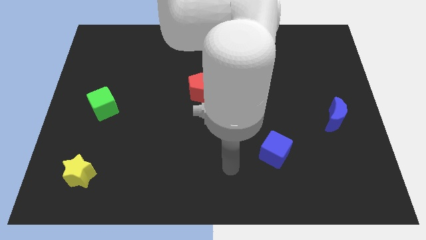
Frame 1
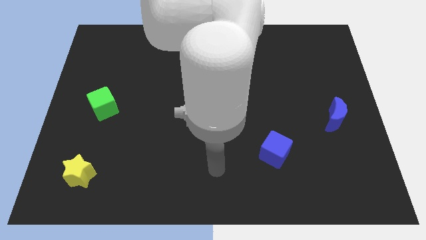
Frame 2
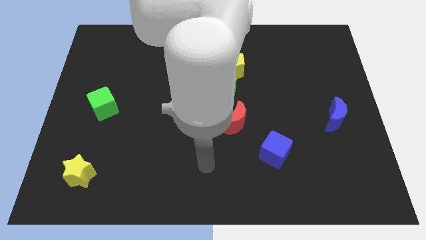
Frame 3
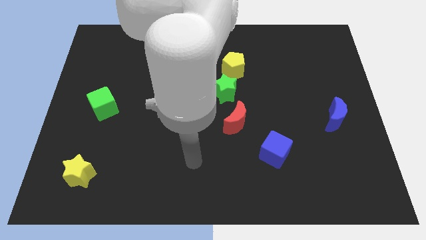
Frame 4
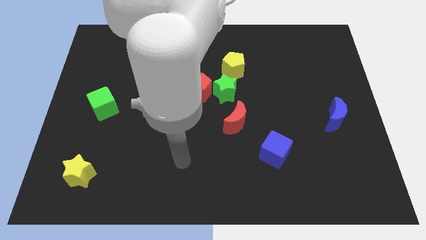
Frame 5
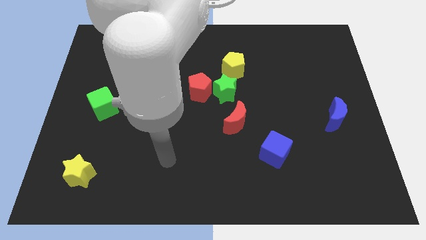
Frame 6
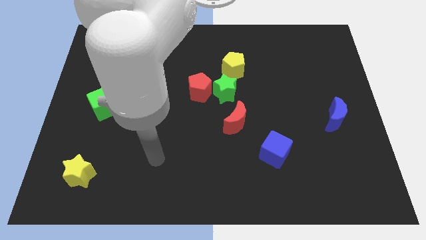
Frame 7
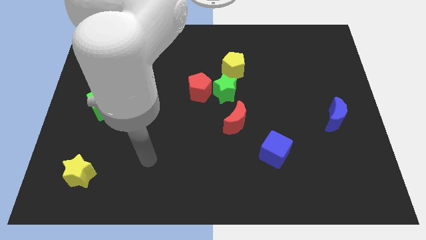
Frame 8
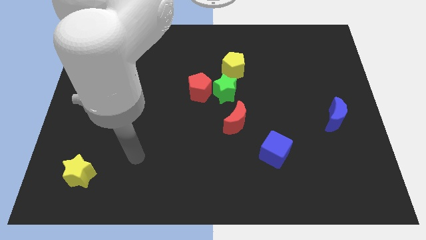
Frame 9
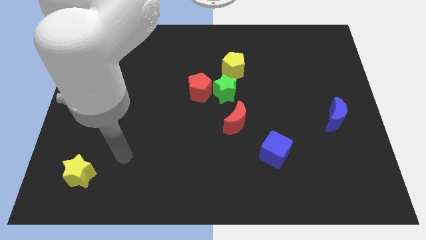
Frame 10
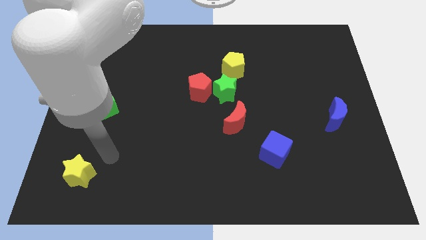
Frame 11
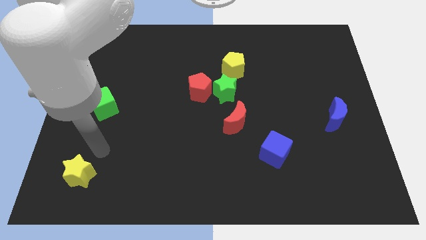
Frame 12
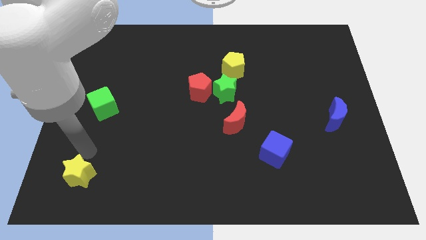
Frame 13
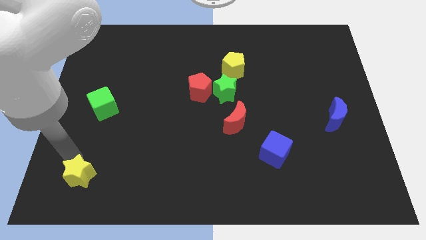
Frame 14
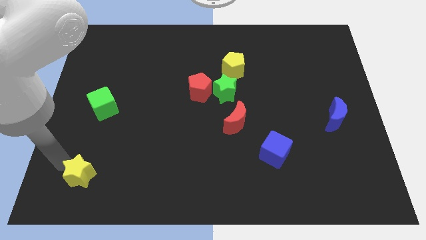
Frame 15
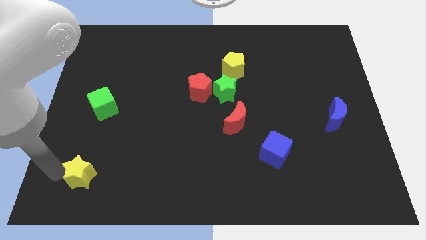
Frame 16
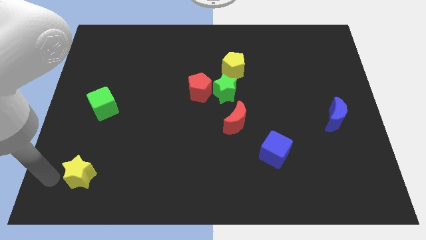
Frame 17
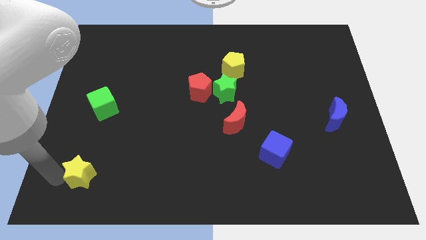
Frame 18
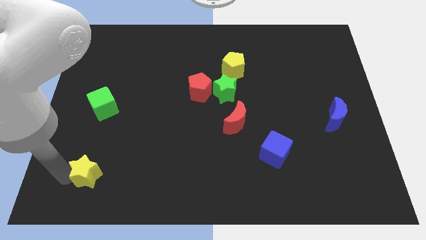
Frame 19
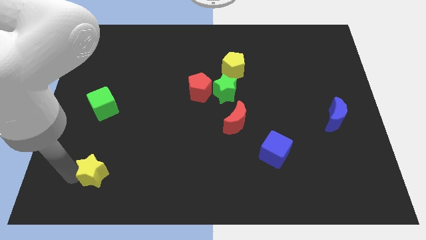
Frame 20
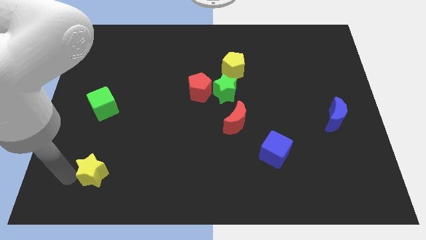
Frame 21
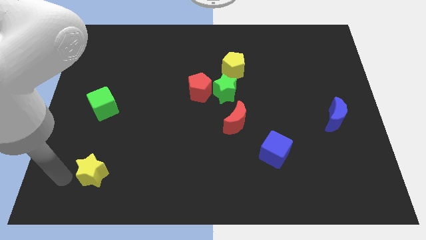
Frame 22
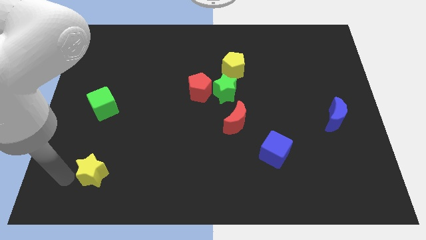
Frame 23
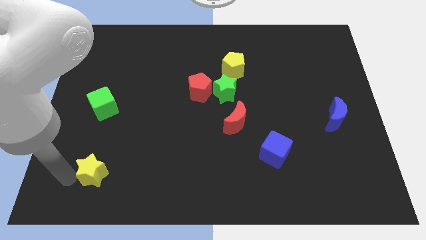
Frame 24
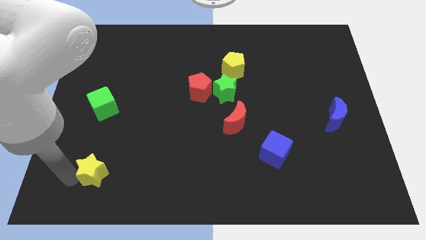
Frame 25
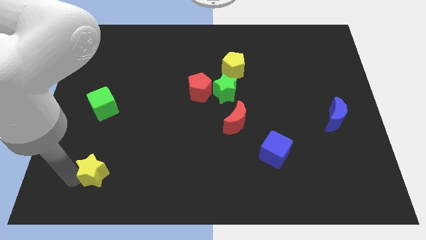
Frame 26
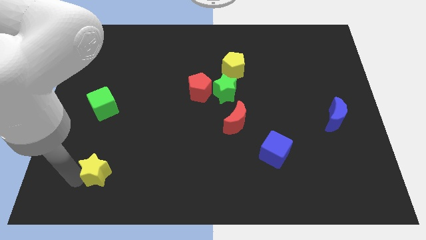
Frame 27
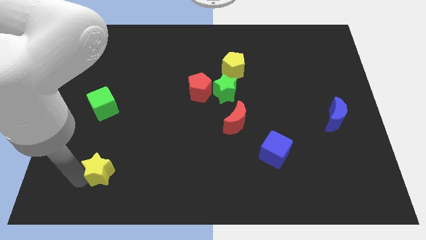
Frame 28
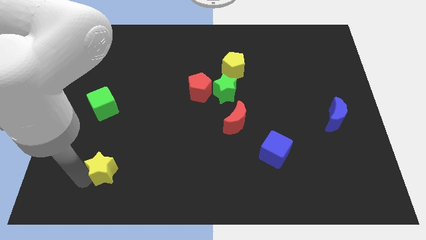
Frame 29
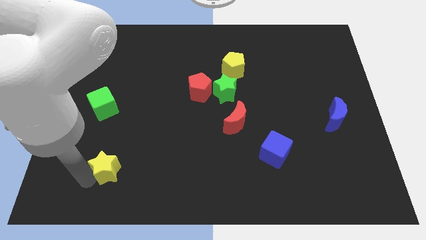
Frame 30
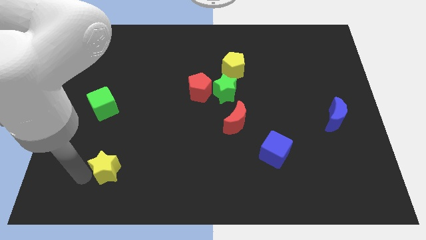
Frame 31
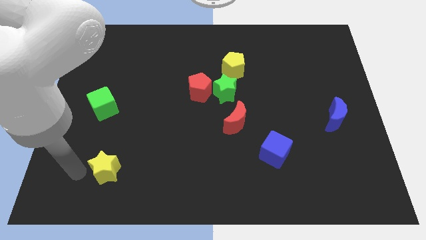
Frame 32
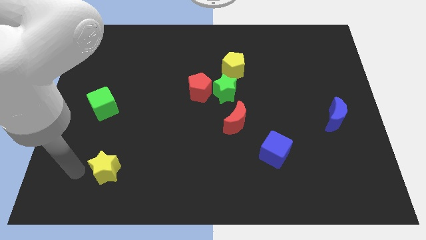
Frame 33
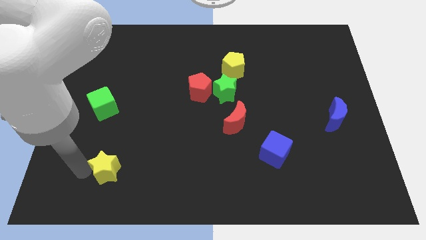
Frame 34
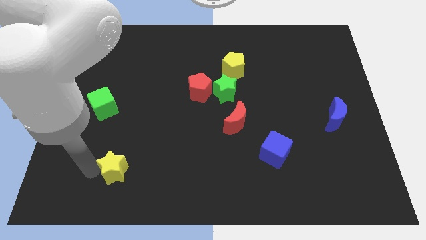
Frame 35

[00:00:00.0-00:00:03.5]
push the yellow star slightly right

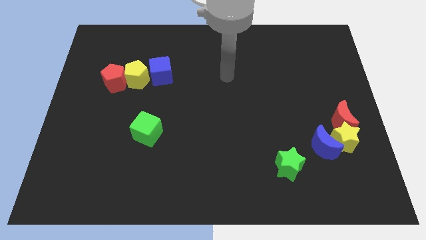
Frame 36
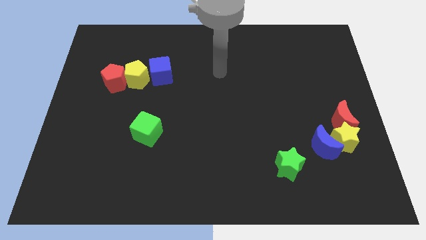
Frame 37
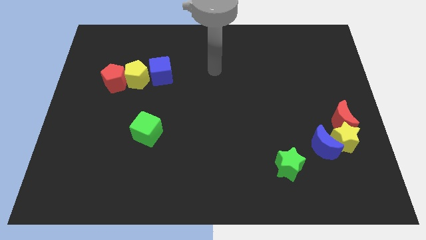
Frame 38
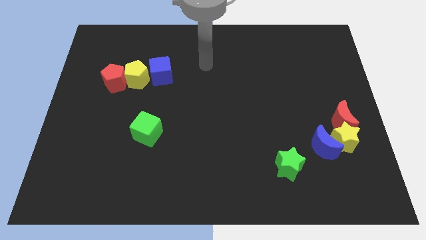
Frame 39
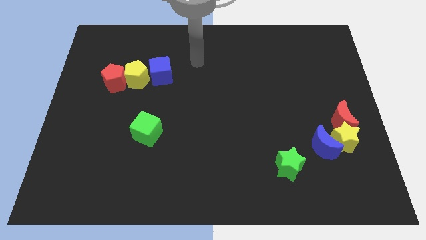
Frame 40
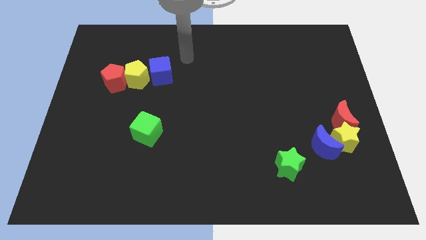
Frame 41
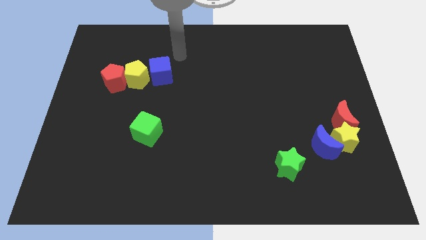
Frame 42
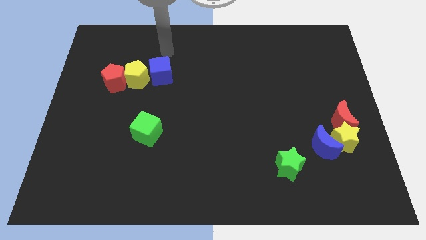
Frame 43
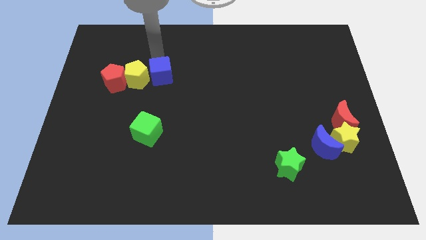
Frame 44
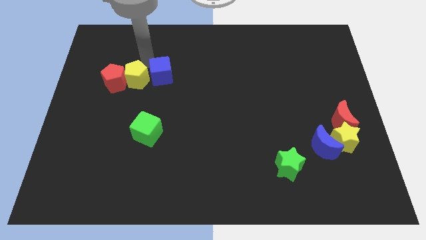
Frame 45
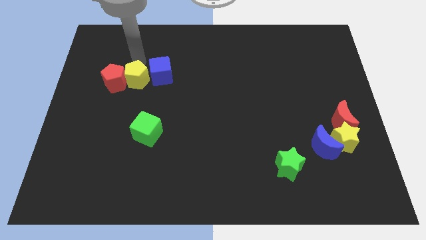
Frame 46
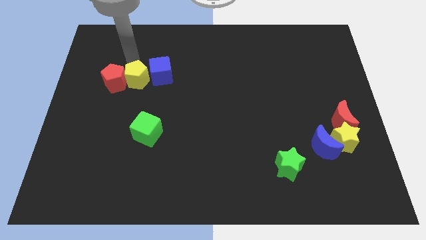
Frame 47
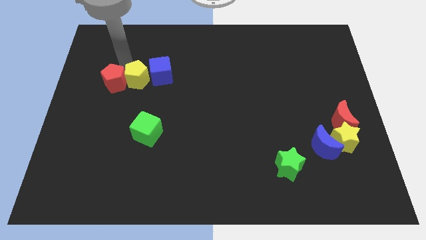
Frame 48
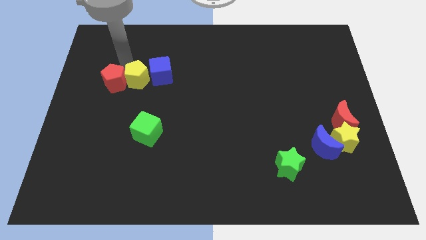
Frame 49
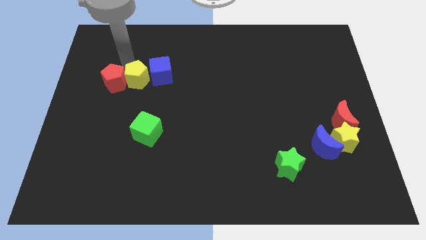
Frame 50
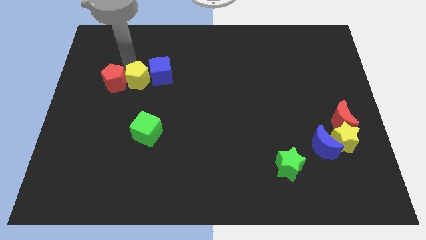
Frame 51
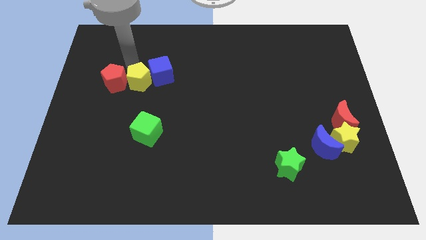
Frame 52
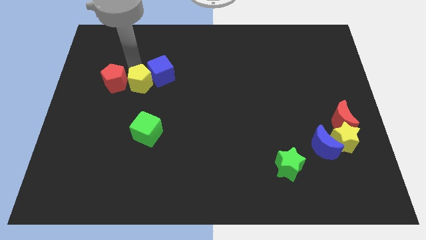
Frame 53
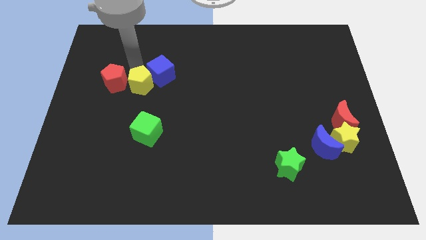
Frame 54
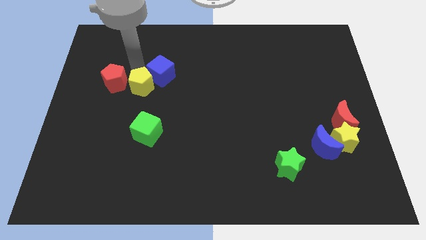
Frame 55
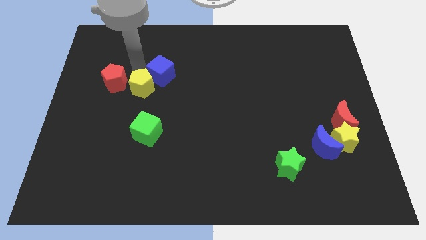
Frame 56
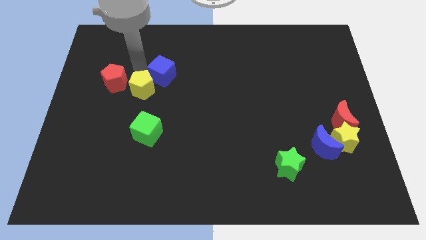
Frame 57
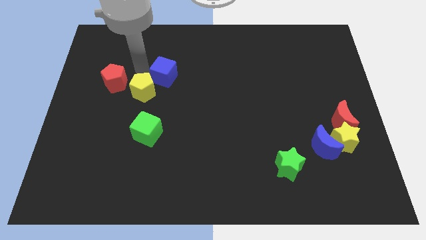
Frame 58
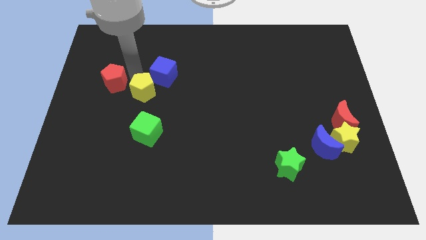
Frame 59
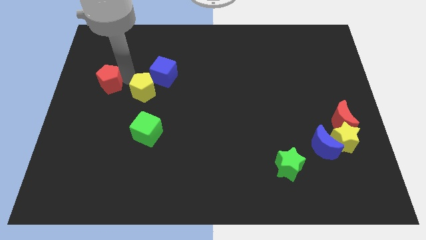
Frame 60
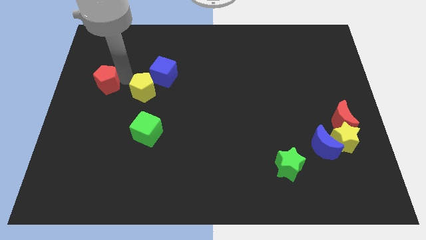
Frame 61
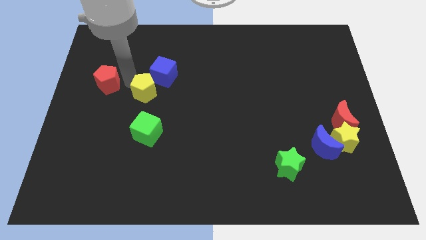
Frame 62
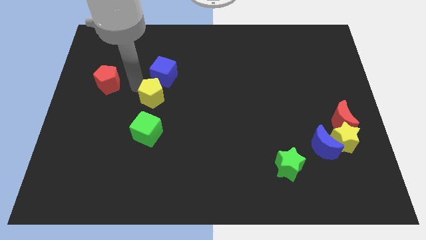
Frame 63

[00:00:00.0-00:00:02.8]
slide the yellow pentagon slightly downwards and right

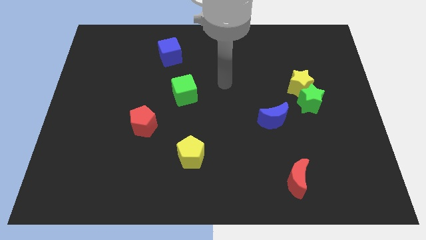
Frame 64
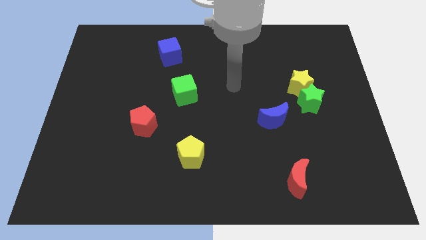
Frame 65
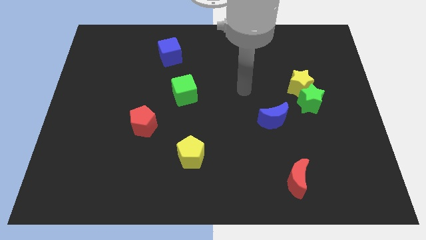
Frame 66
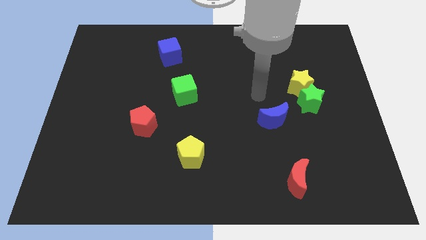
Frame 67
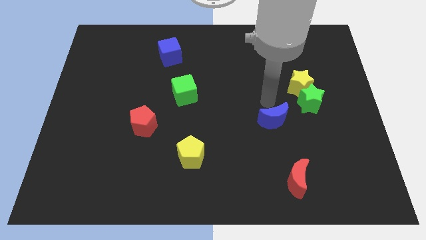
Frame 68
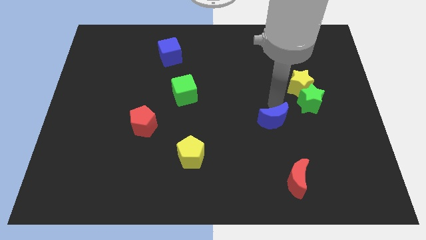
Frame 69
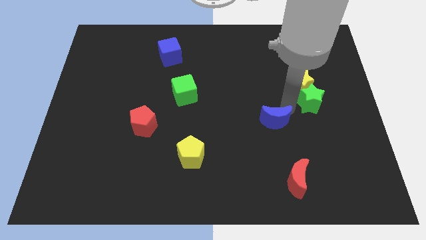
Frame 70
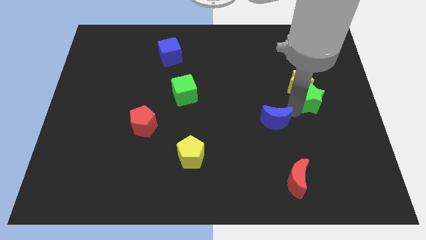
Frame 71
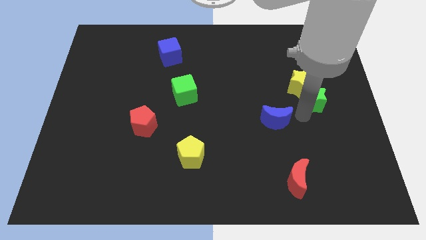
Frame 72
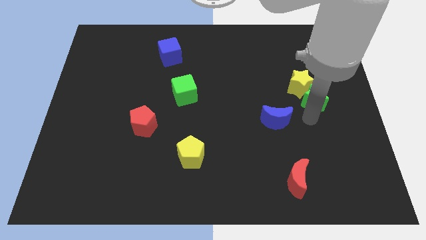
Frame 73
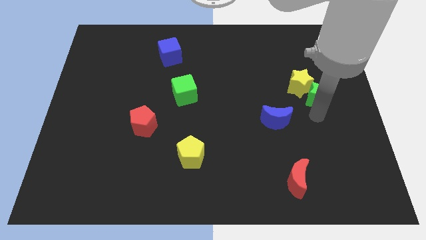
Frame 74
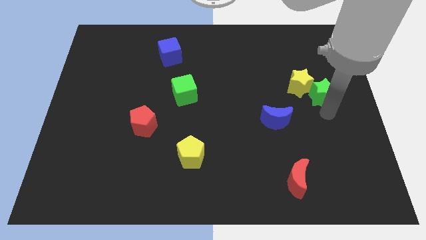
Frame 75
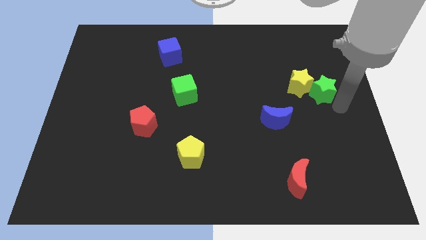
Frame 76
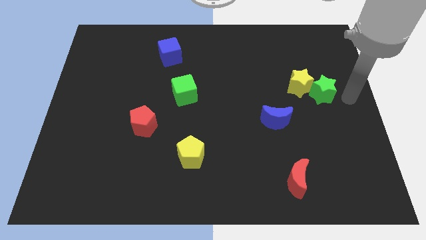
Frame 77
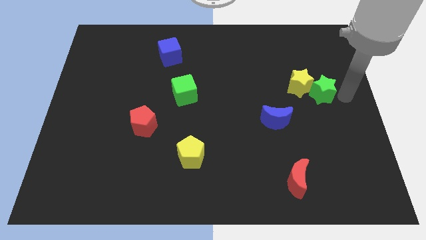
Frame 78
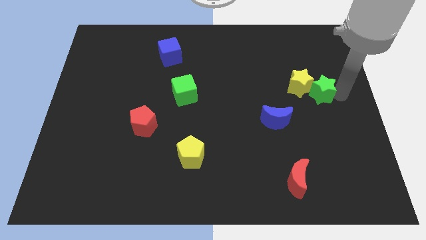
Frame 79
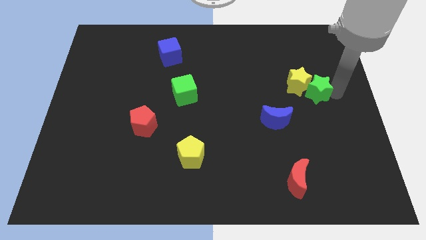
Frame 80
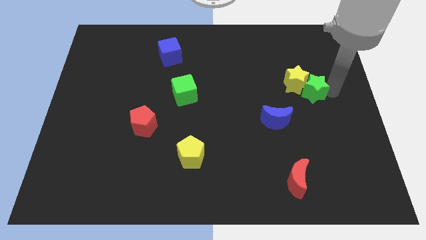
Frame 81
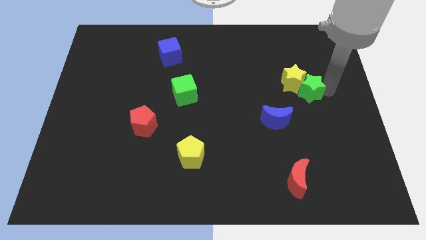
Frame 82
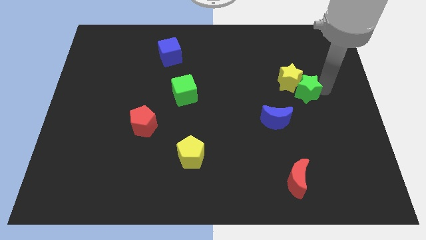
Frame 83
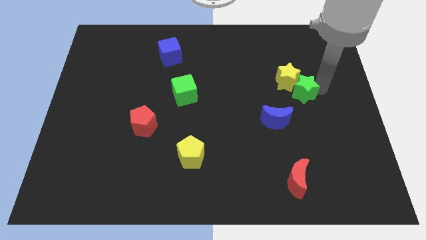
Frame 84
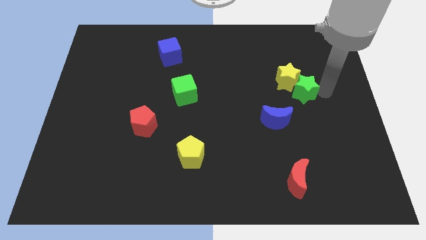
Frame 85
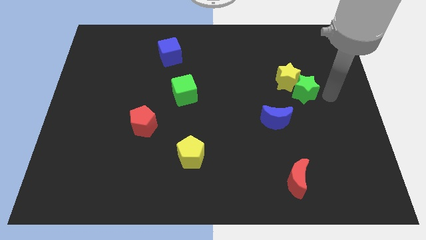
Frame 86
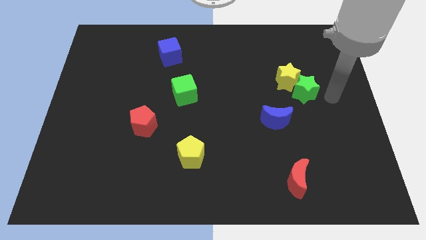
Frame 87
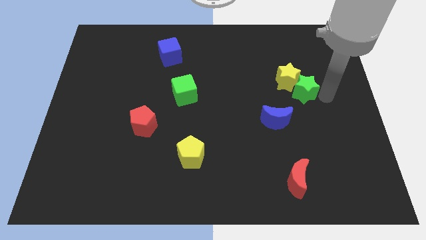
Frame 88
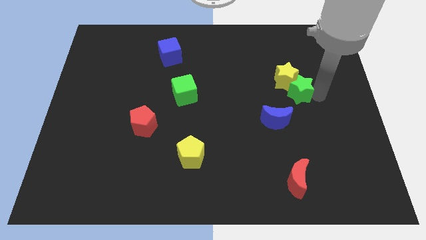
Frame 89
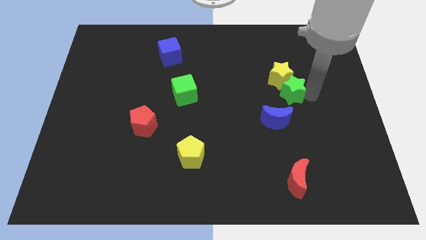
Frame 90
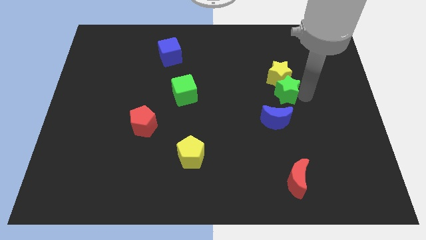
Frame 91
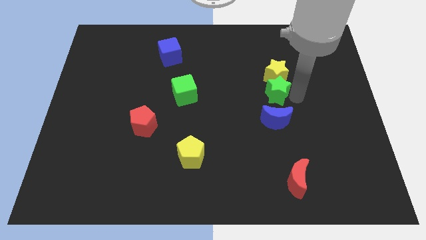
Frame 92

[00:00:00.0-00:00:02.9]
slide the green star up and left diagonally a little bit
